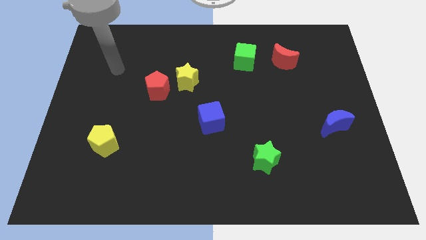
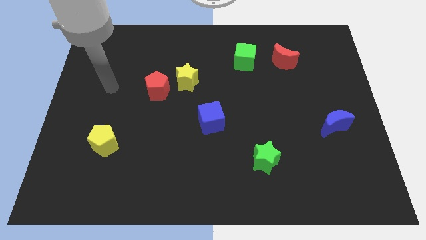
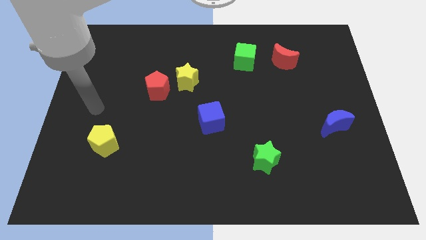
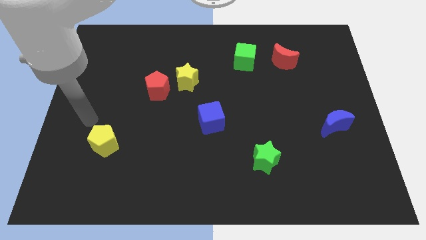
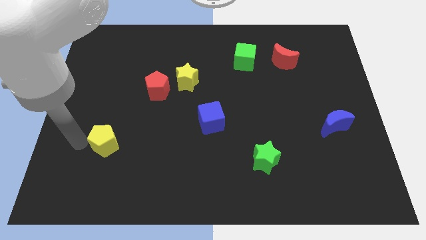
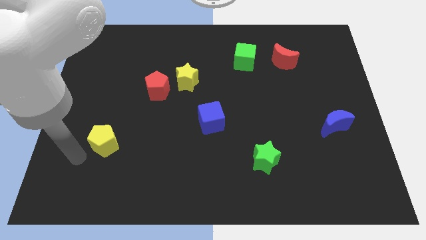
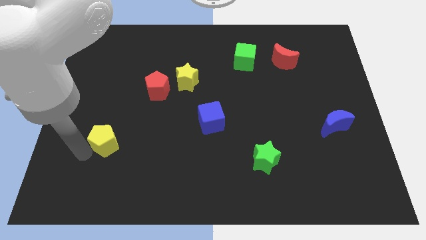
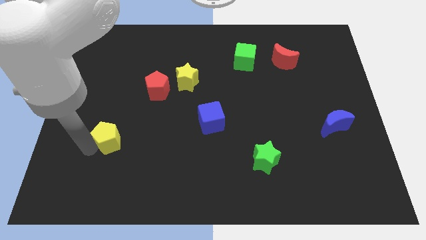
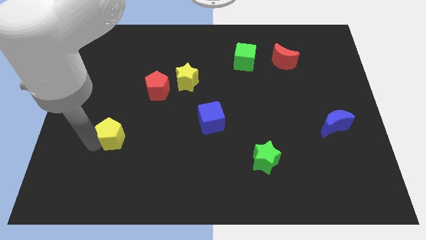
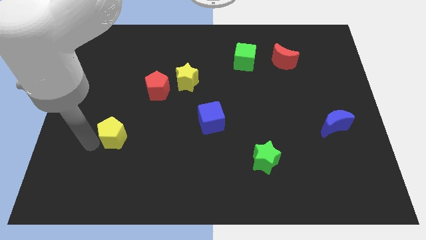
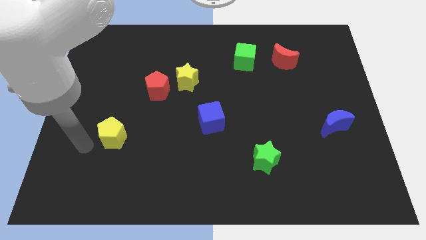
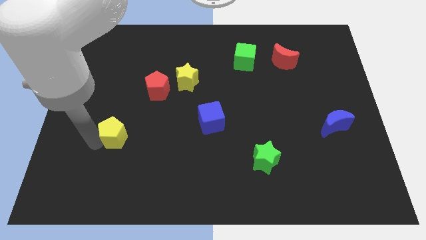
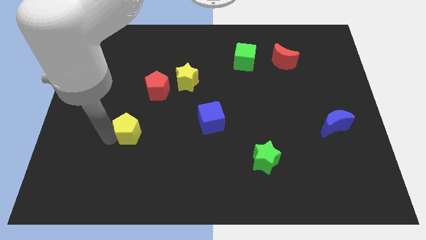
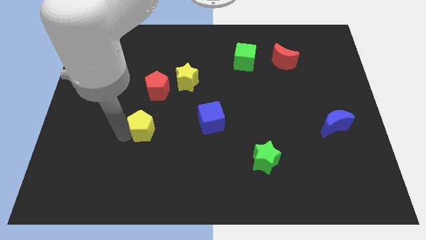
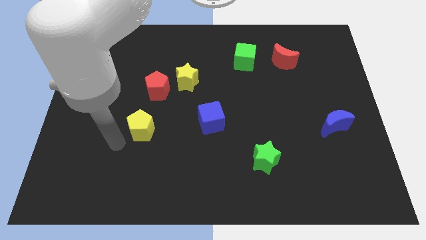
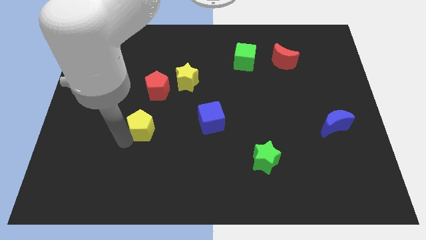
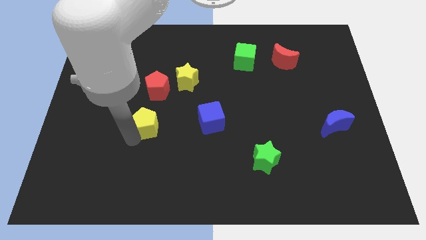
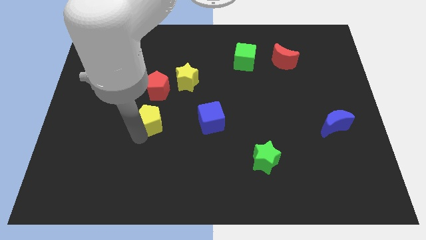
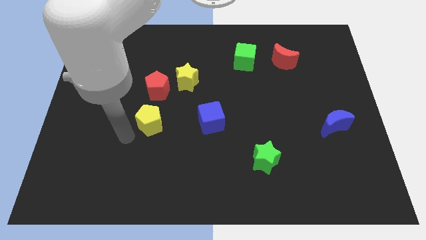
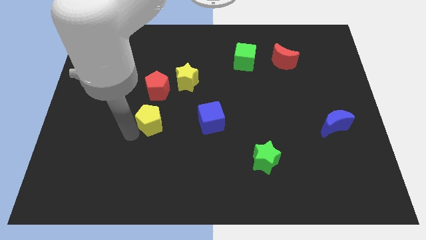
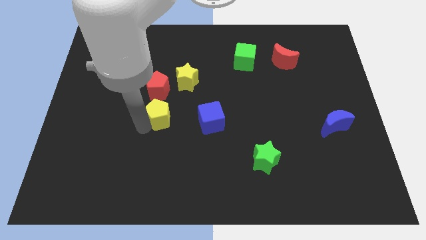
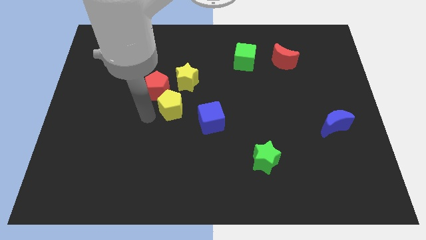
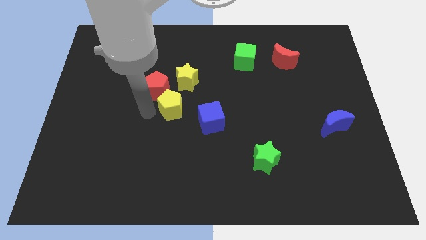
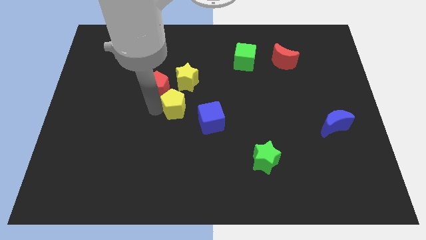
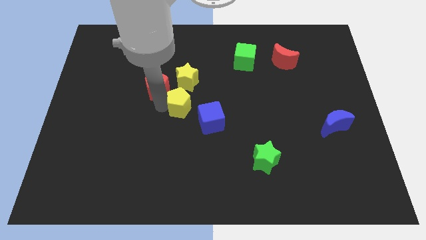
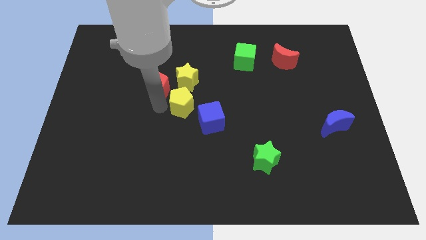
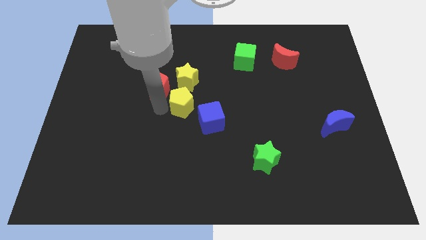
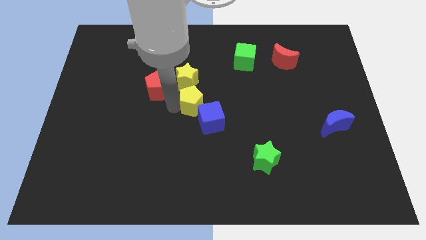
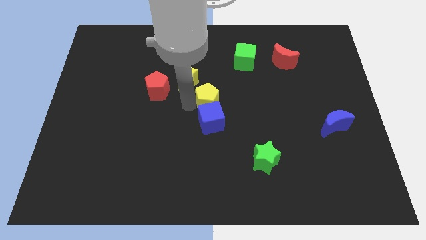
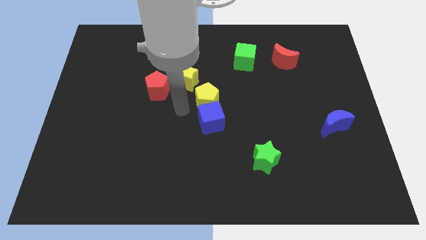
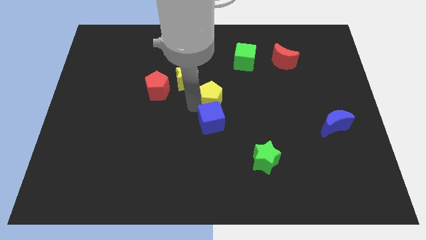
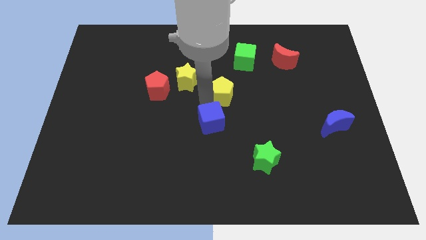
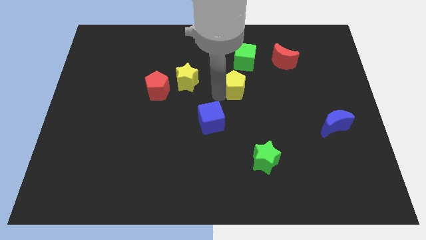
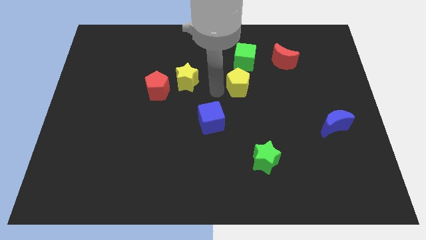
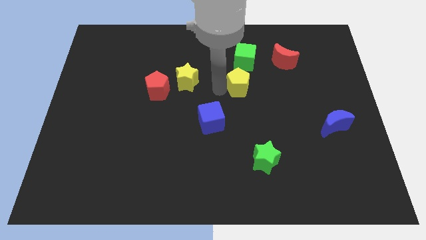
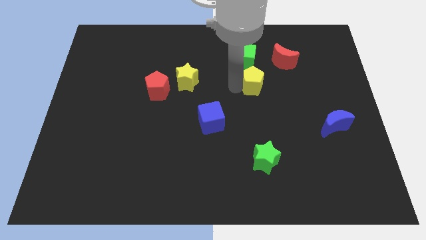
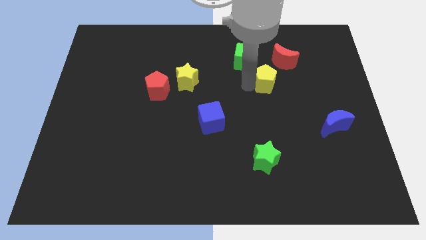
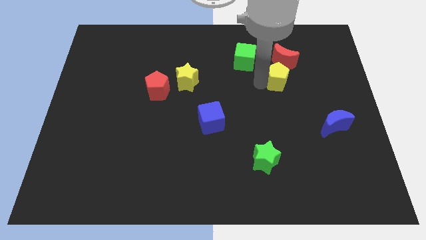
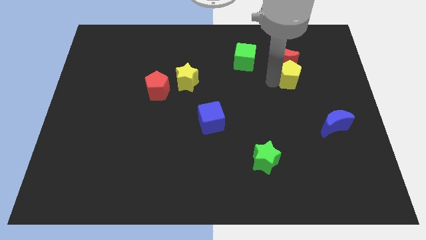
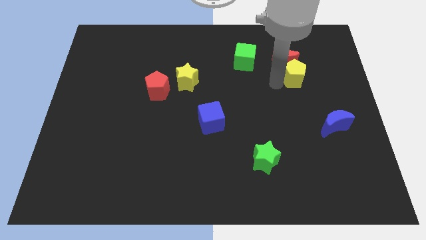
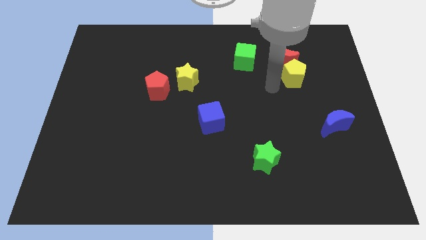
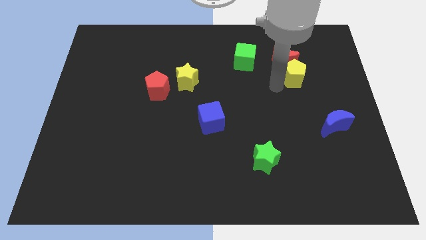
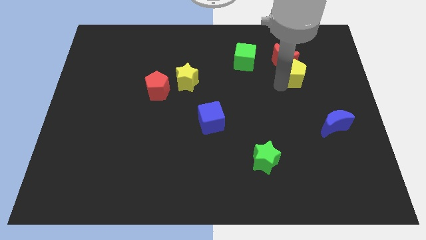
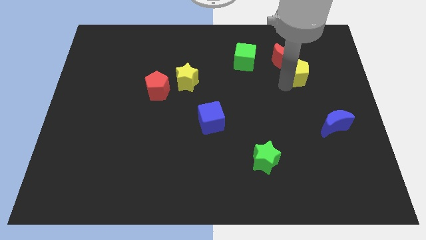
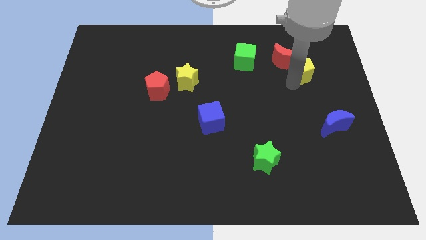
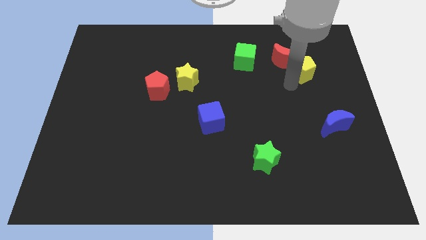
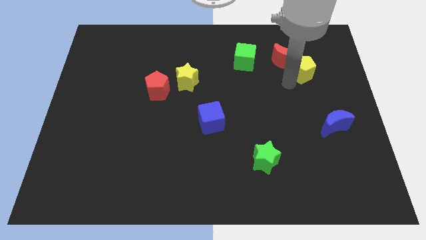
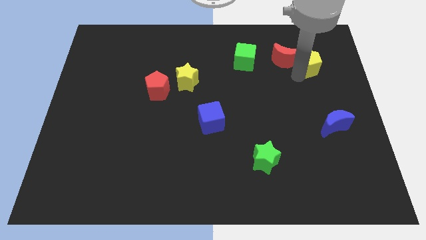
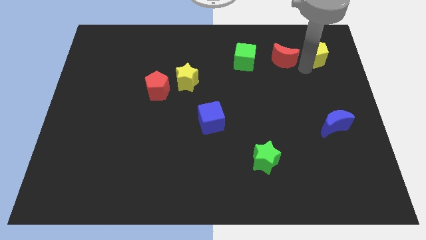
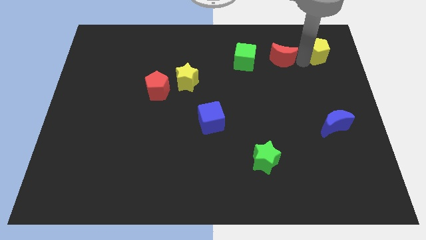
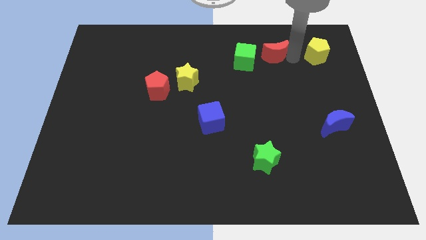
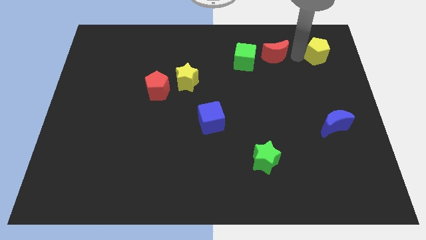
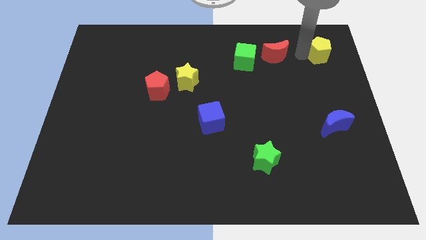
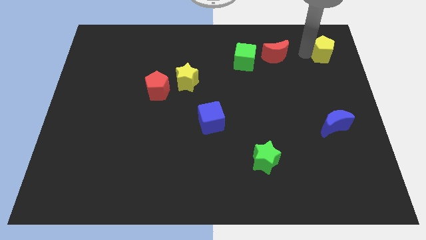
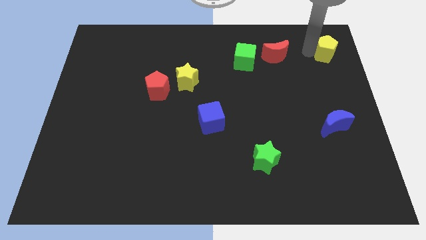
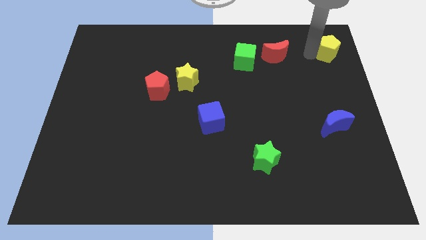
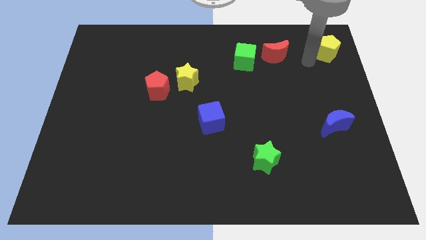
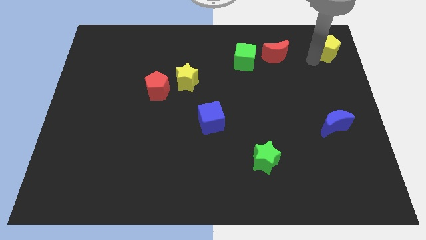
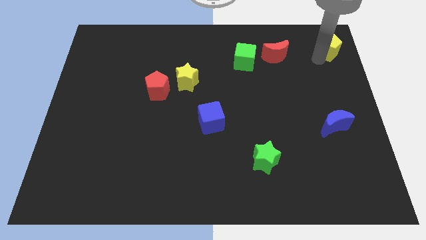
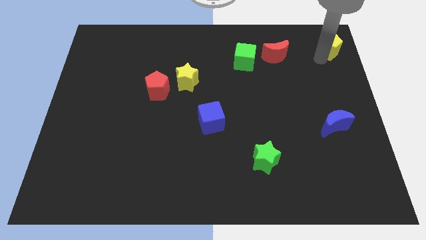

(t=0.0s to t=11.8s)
put the yellow pentagon to the upper right corner

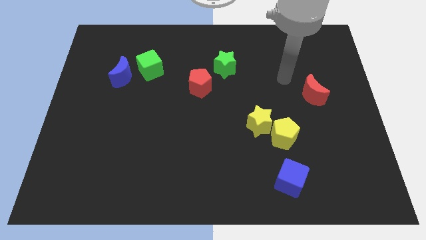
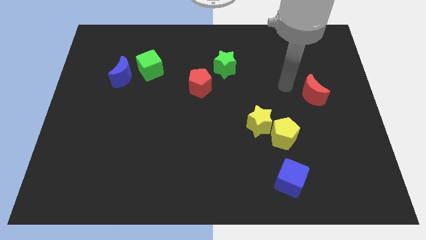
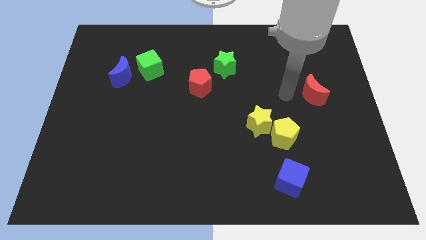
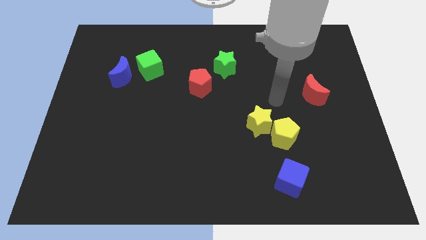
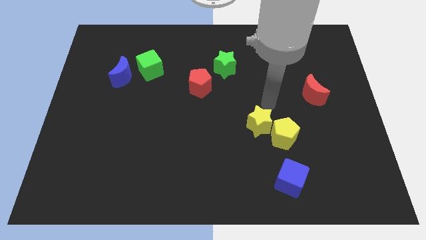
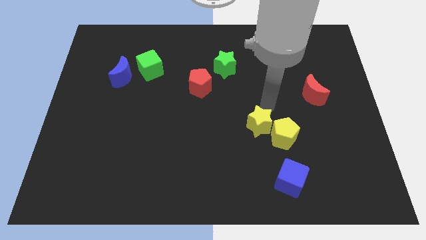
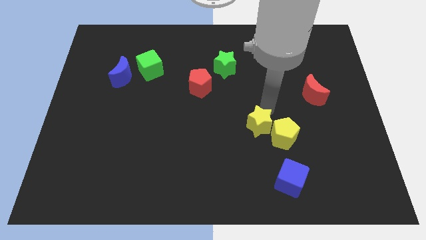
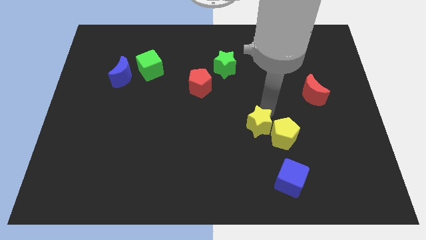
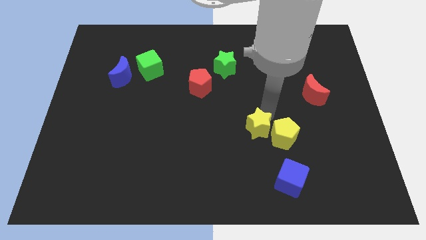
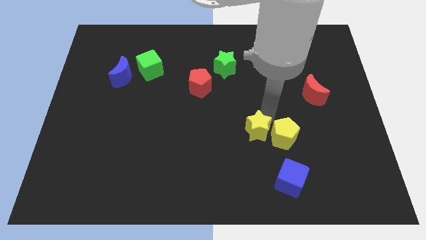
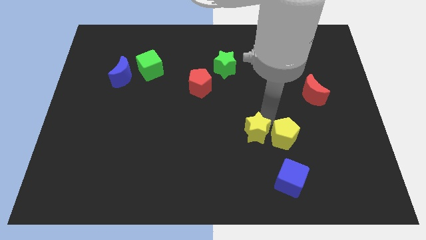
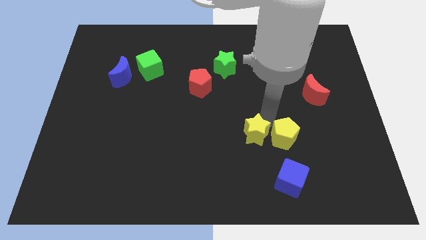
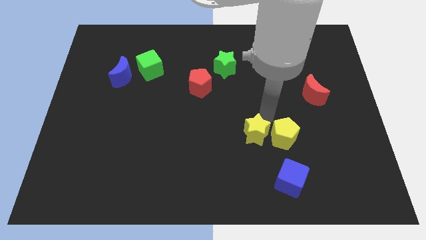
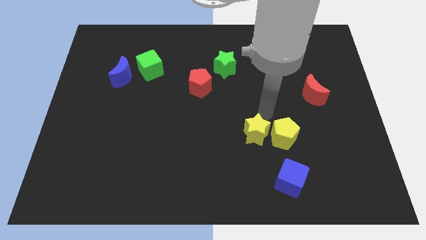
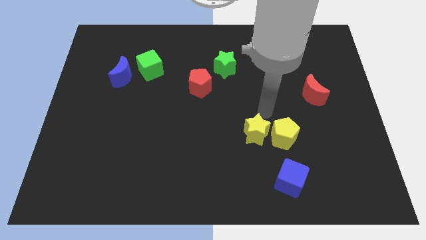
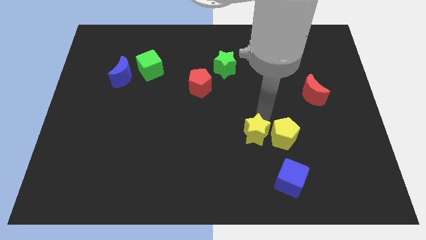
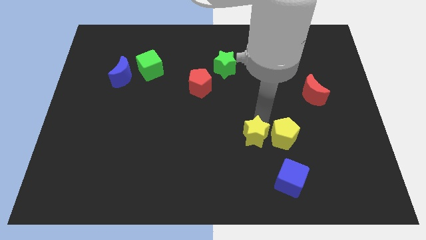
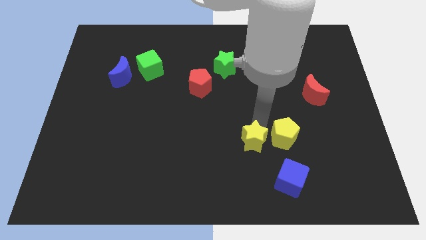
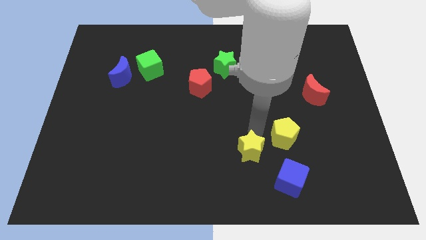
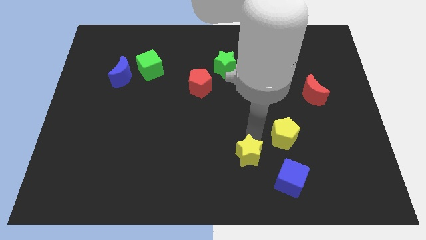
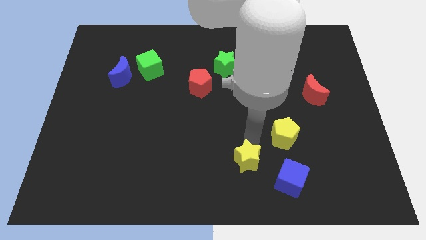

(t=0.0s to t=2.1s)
put the yellow star to the bottom
